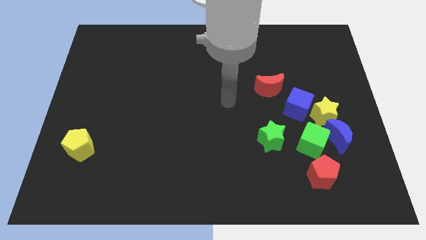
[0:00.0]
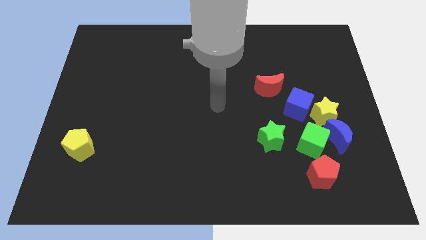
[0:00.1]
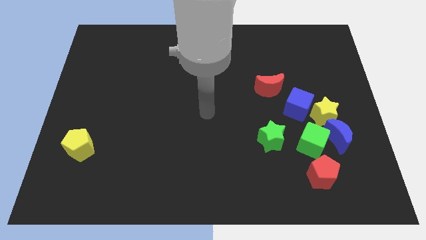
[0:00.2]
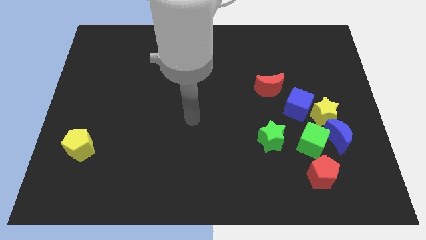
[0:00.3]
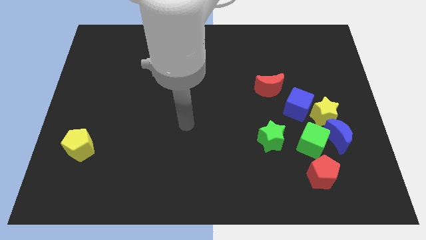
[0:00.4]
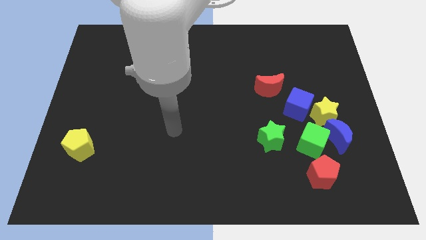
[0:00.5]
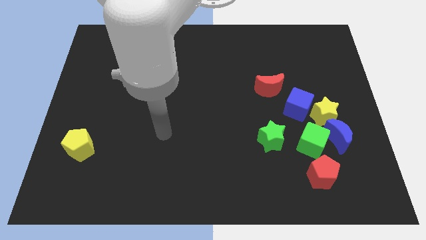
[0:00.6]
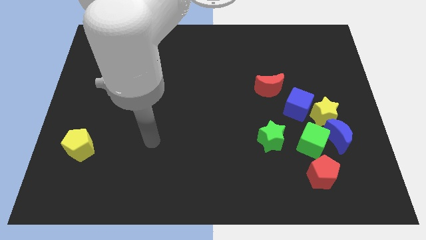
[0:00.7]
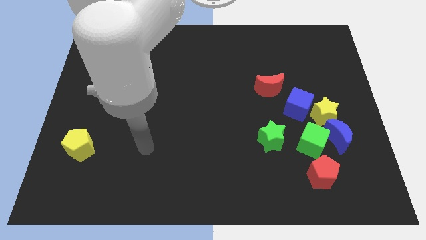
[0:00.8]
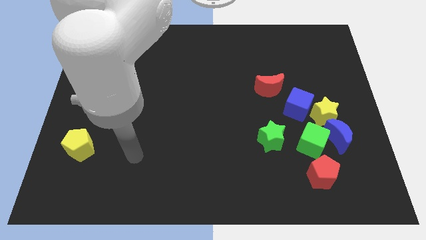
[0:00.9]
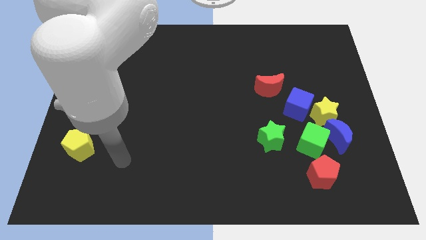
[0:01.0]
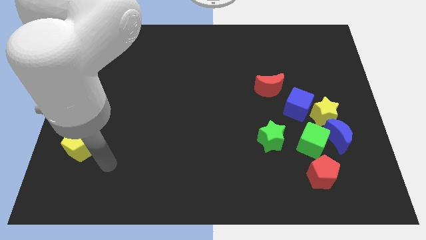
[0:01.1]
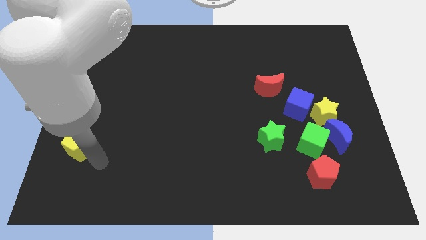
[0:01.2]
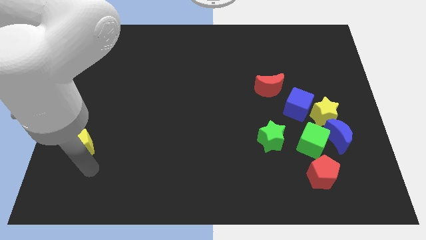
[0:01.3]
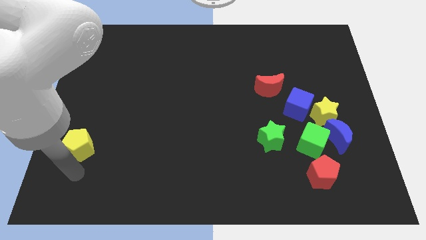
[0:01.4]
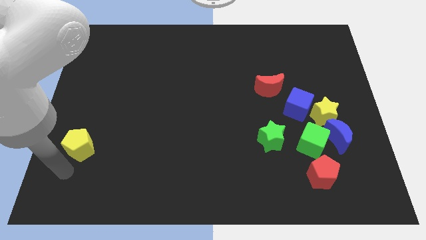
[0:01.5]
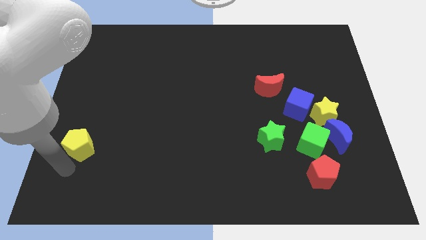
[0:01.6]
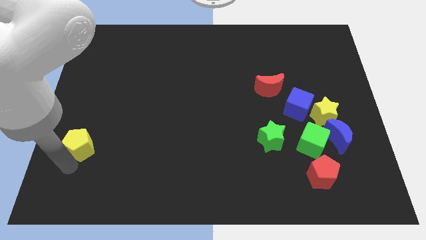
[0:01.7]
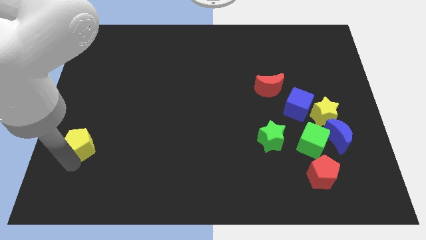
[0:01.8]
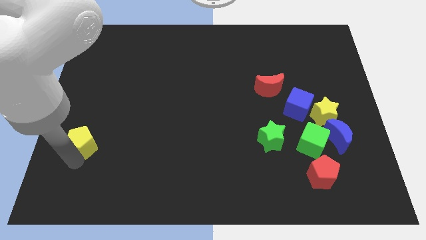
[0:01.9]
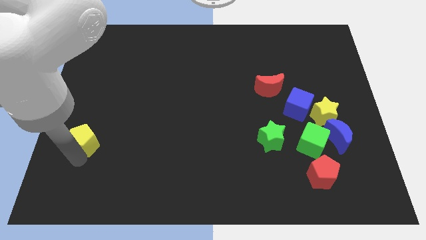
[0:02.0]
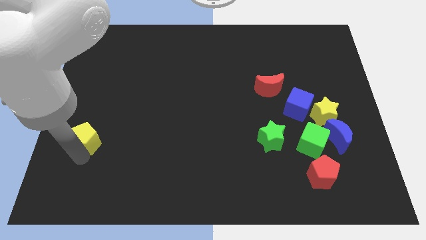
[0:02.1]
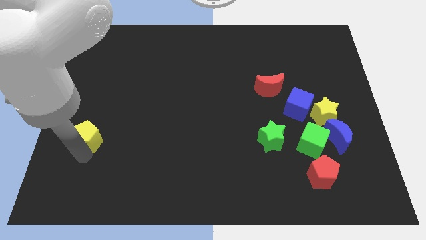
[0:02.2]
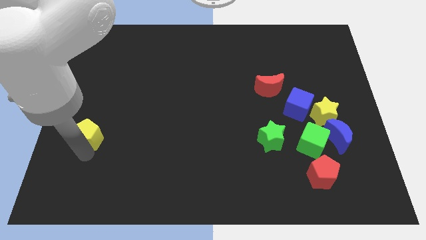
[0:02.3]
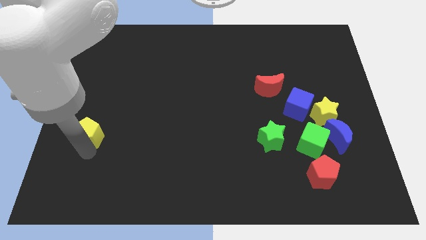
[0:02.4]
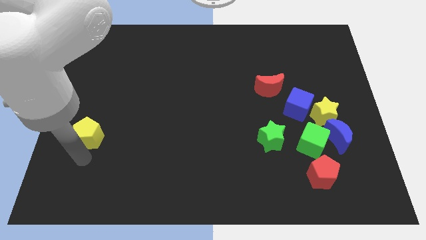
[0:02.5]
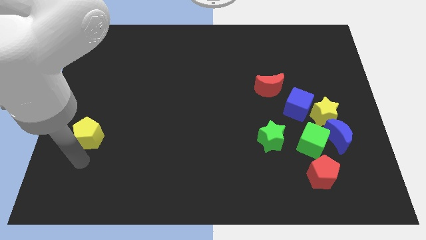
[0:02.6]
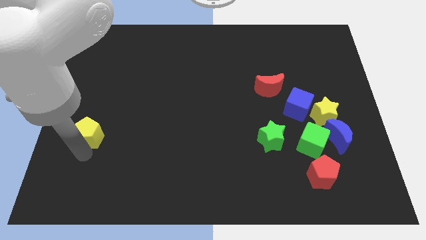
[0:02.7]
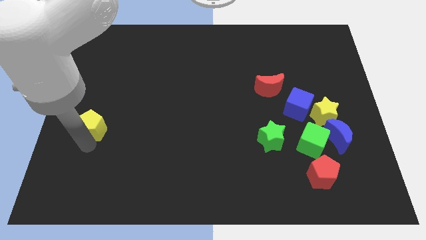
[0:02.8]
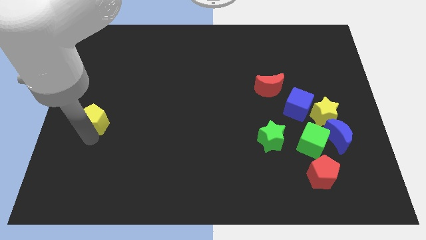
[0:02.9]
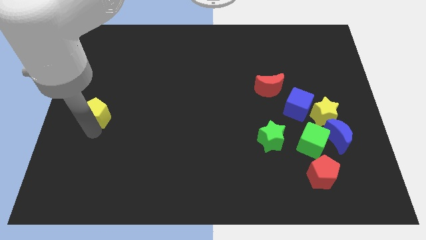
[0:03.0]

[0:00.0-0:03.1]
move the yellow pentagon a bit upwards

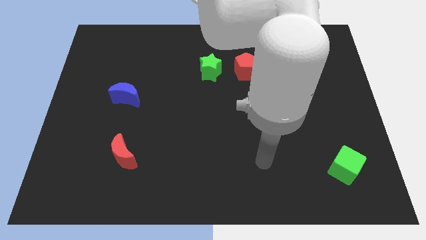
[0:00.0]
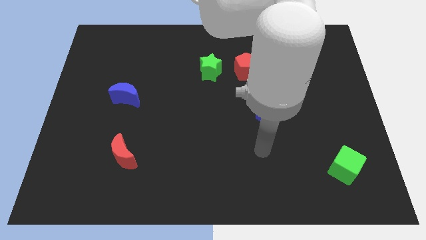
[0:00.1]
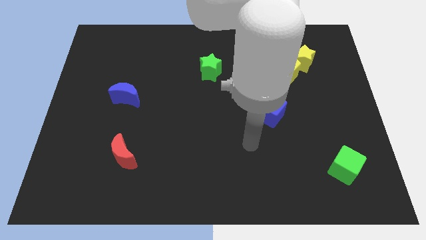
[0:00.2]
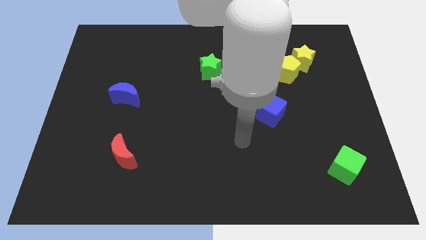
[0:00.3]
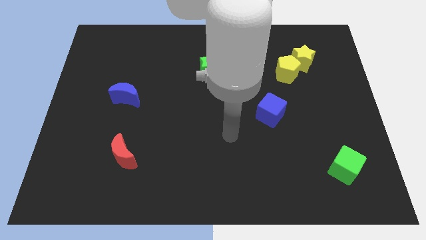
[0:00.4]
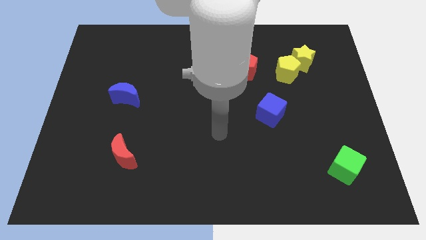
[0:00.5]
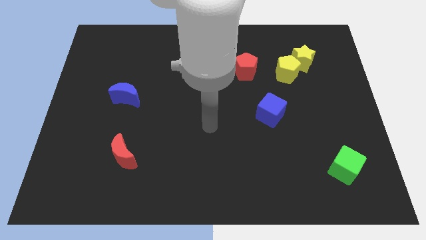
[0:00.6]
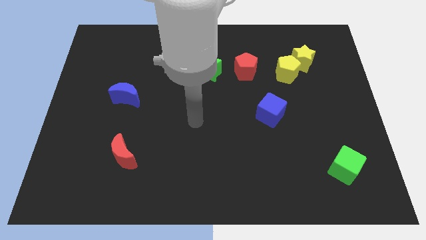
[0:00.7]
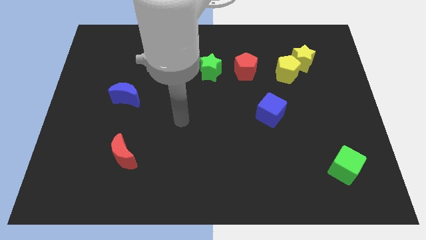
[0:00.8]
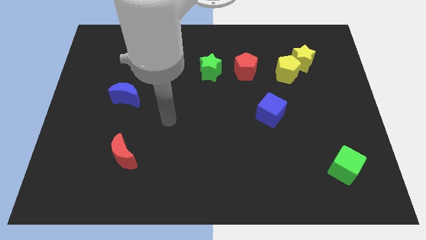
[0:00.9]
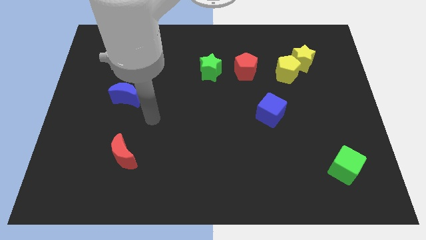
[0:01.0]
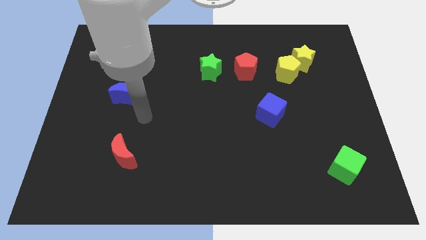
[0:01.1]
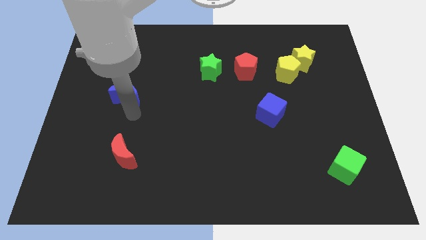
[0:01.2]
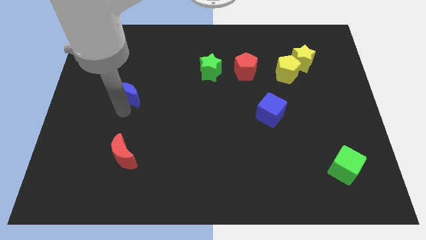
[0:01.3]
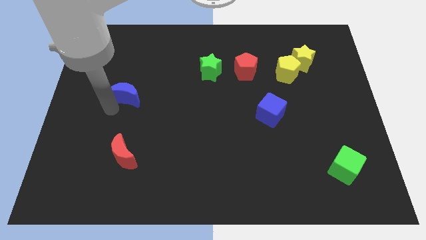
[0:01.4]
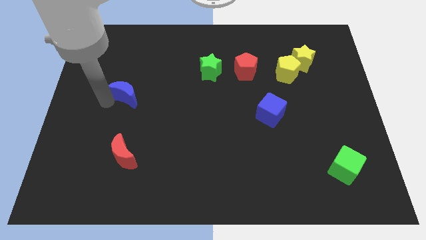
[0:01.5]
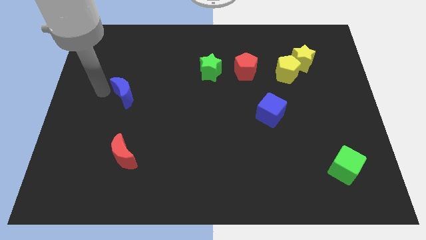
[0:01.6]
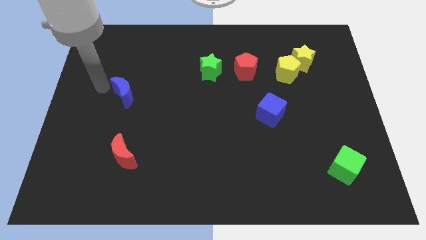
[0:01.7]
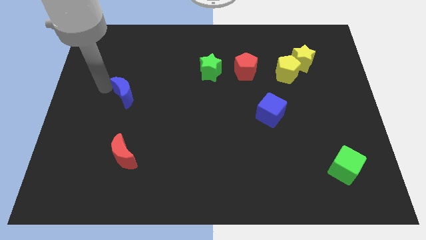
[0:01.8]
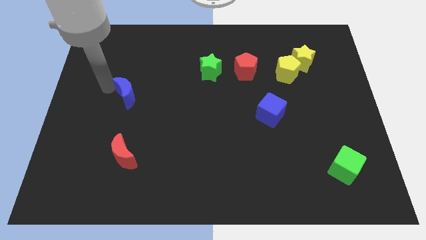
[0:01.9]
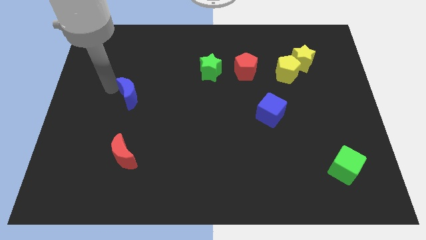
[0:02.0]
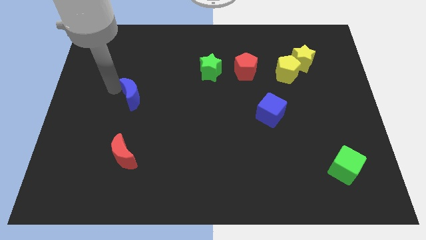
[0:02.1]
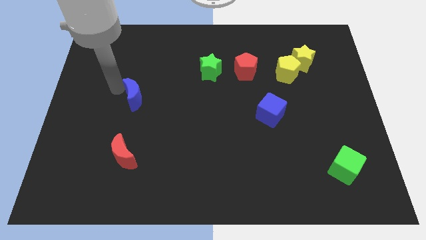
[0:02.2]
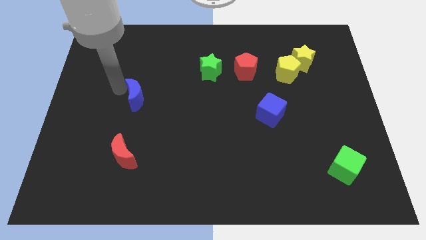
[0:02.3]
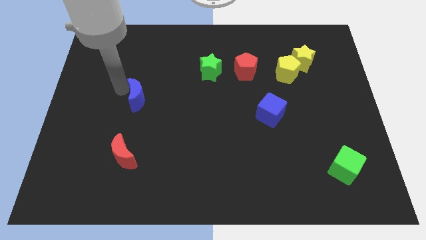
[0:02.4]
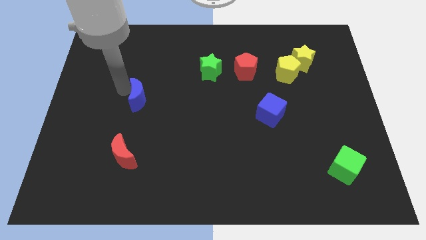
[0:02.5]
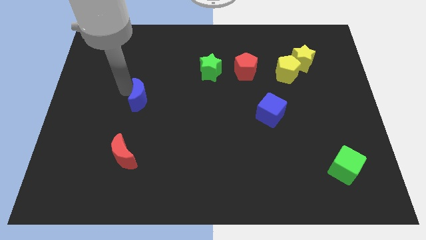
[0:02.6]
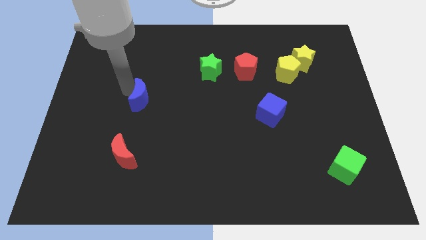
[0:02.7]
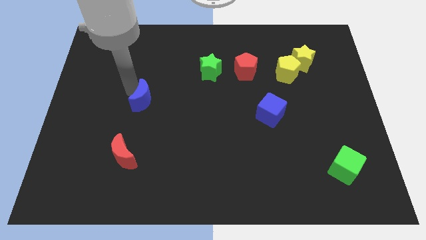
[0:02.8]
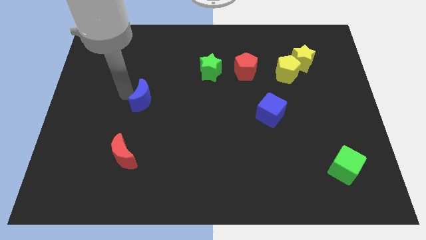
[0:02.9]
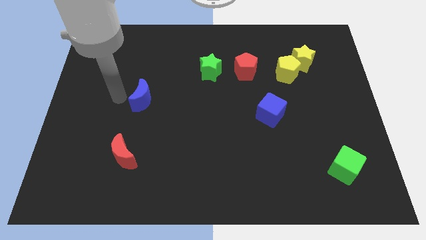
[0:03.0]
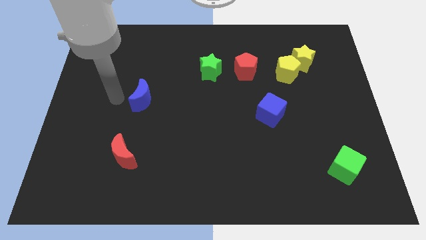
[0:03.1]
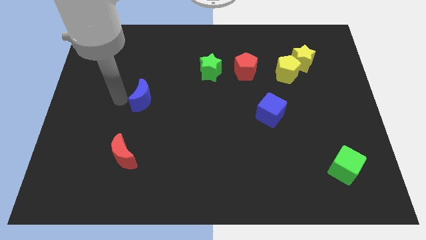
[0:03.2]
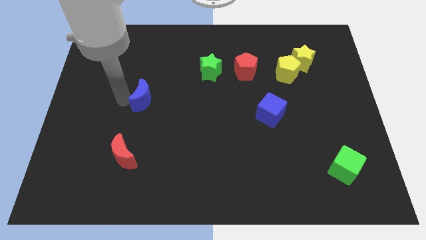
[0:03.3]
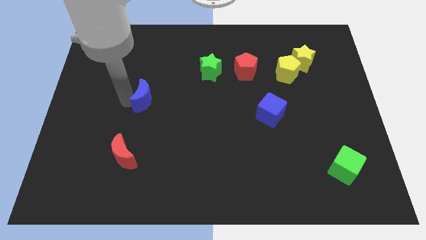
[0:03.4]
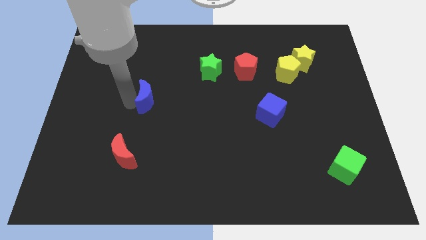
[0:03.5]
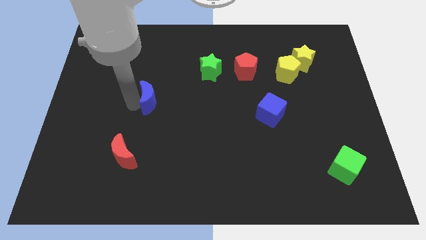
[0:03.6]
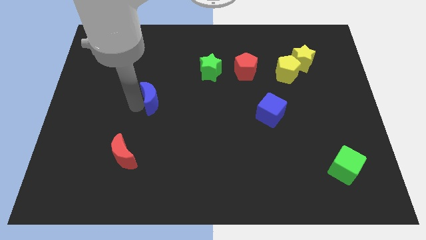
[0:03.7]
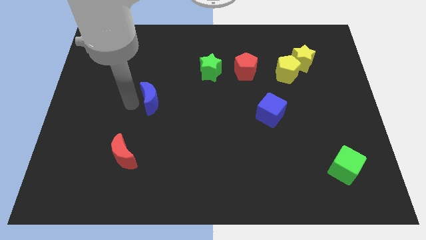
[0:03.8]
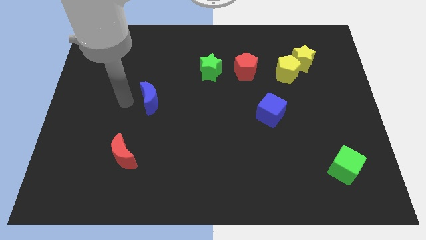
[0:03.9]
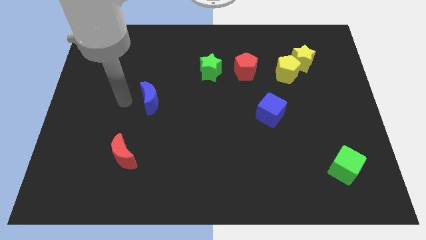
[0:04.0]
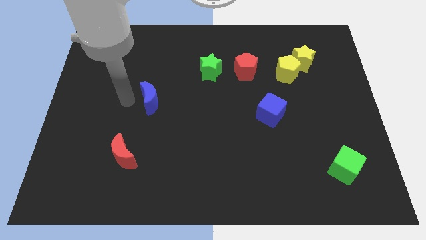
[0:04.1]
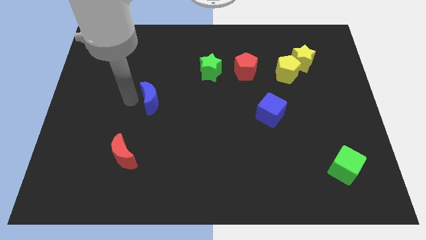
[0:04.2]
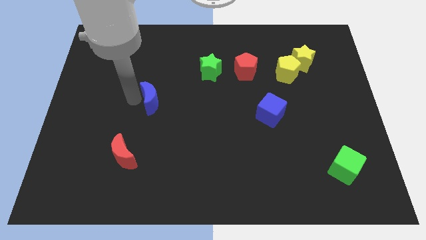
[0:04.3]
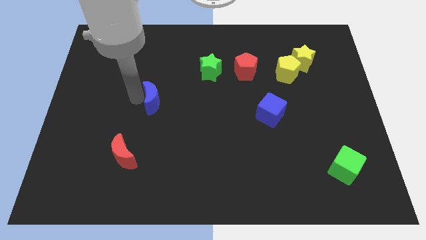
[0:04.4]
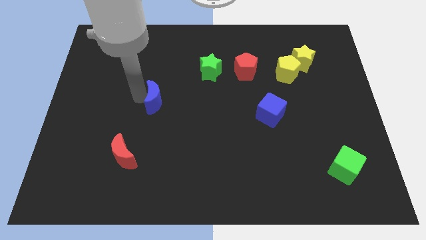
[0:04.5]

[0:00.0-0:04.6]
slide the blue moon right slightly

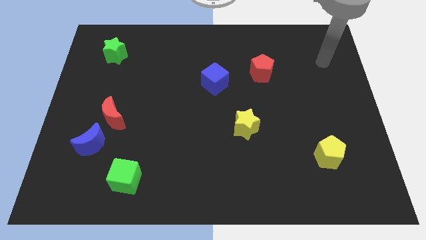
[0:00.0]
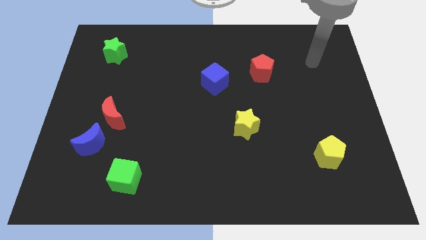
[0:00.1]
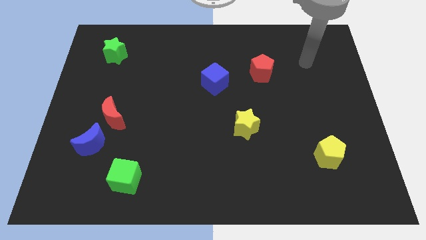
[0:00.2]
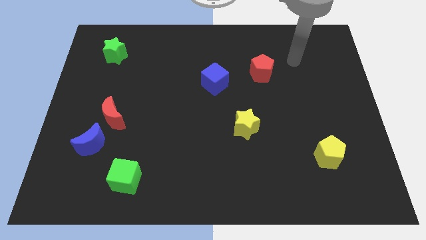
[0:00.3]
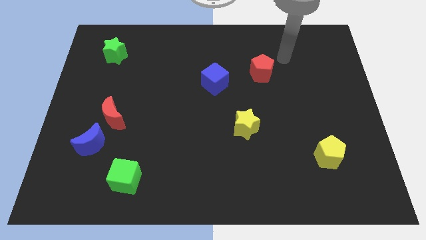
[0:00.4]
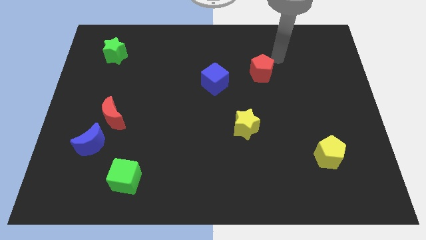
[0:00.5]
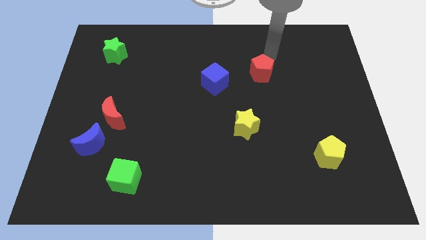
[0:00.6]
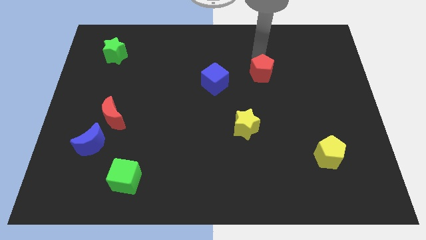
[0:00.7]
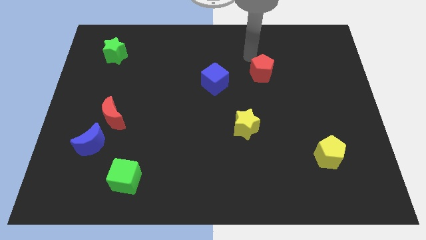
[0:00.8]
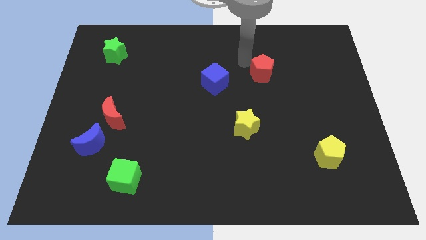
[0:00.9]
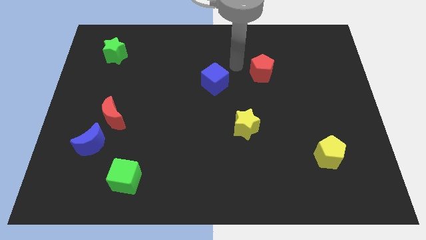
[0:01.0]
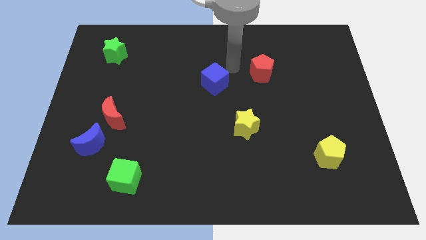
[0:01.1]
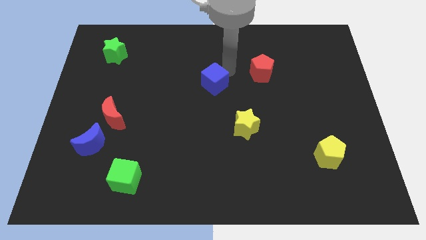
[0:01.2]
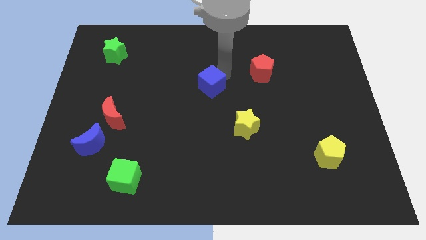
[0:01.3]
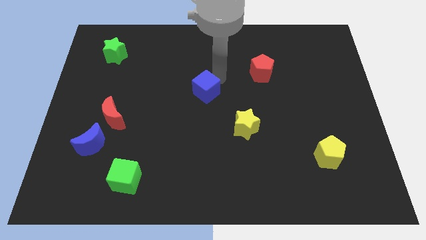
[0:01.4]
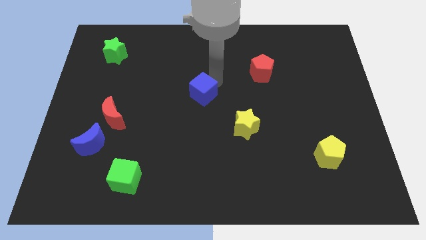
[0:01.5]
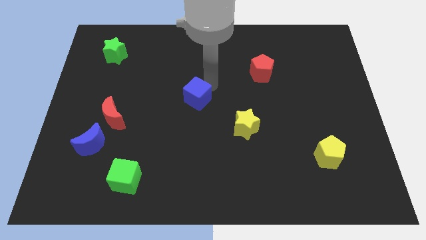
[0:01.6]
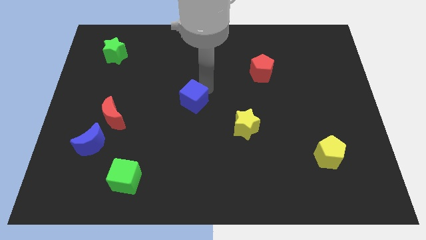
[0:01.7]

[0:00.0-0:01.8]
push the blue cube down and to the left a little
